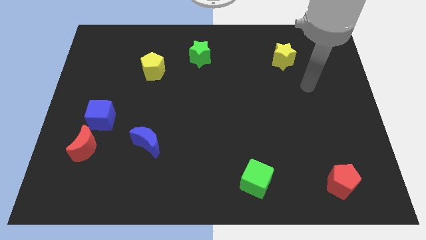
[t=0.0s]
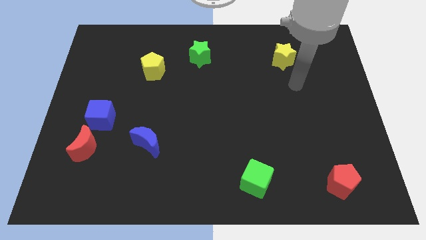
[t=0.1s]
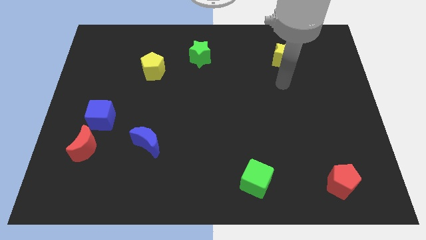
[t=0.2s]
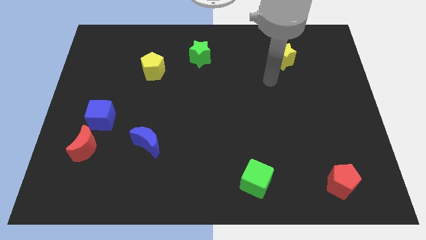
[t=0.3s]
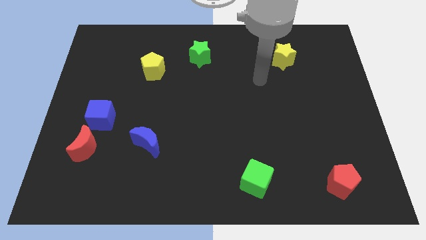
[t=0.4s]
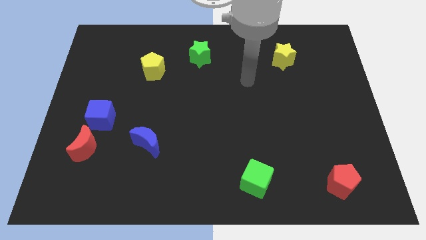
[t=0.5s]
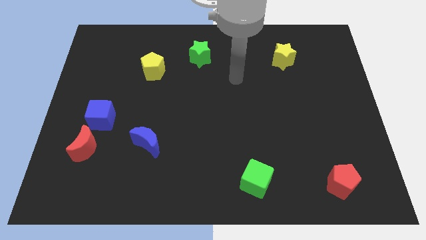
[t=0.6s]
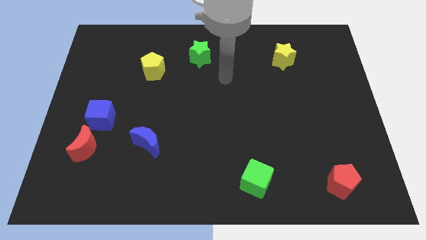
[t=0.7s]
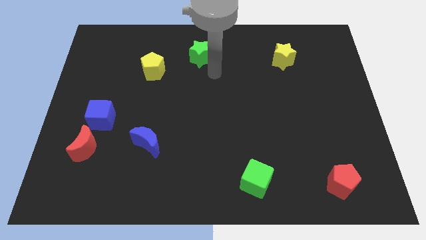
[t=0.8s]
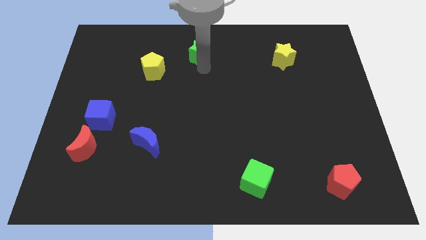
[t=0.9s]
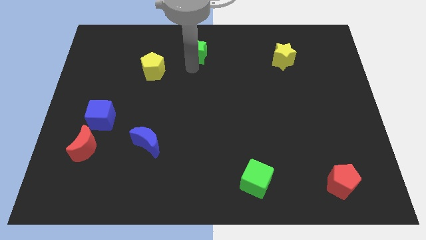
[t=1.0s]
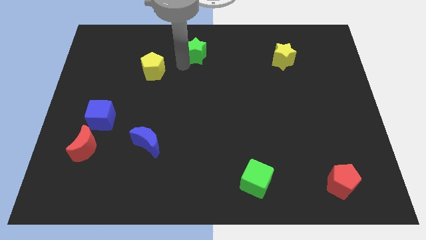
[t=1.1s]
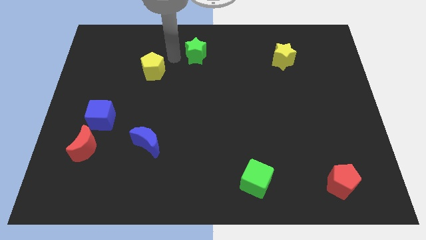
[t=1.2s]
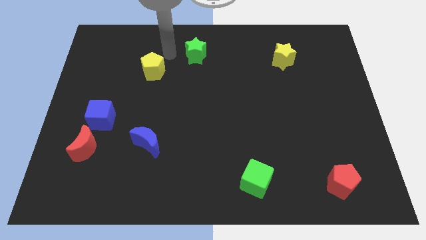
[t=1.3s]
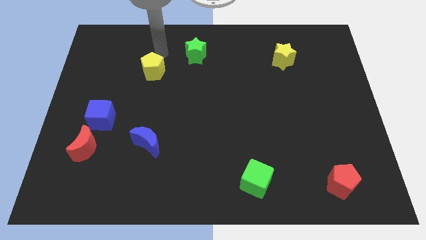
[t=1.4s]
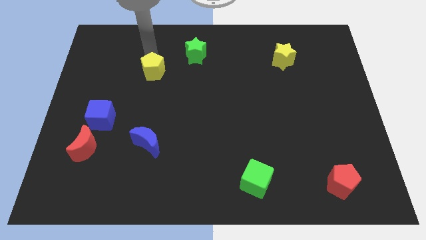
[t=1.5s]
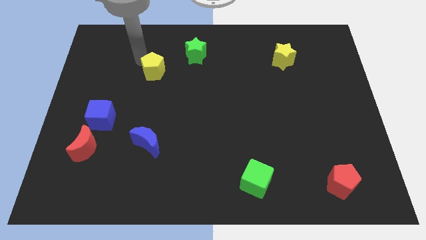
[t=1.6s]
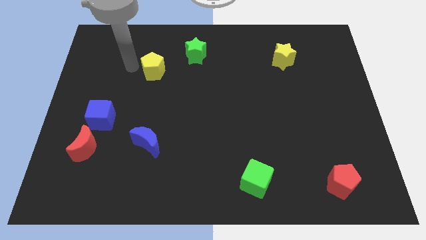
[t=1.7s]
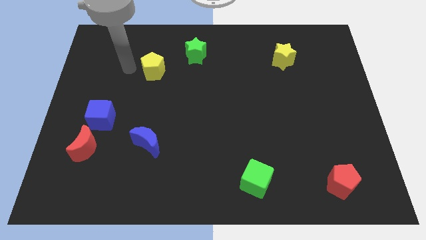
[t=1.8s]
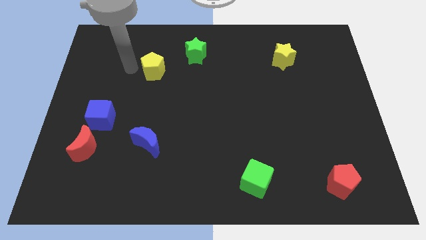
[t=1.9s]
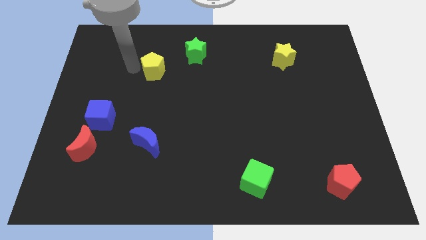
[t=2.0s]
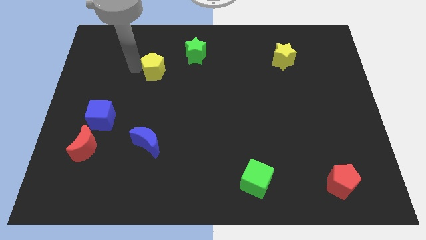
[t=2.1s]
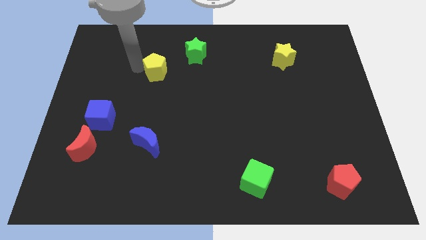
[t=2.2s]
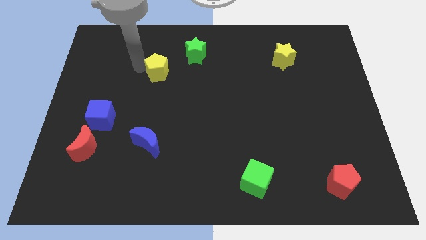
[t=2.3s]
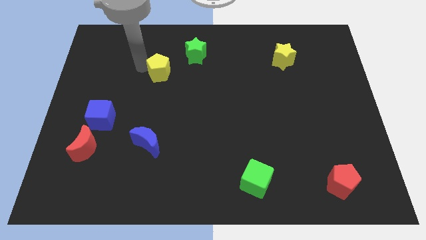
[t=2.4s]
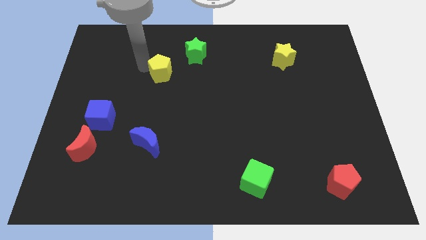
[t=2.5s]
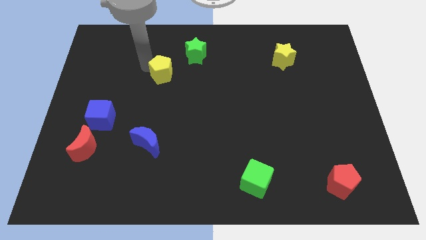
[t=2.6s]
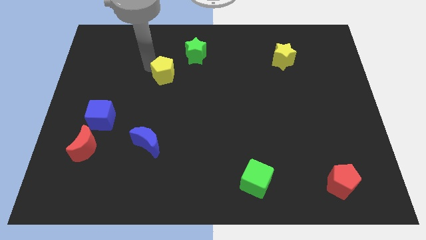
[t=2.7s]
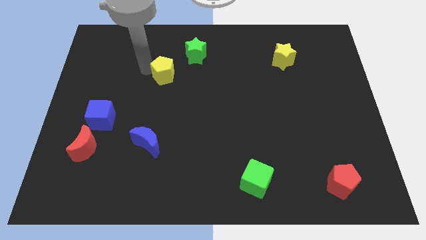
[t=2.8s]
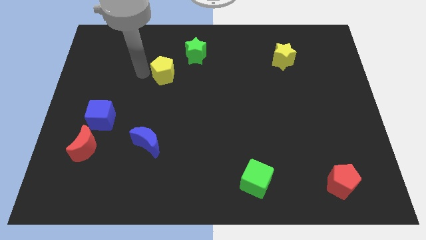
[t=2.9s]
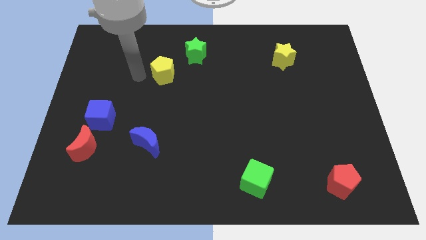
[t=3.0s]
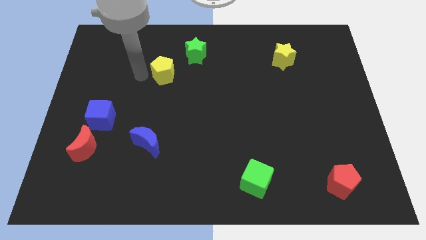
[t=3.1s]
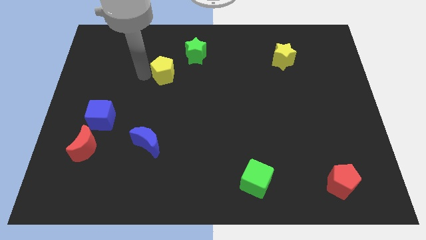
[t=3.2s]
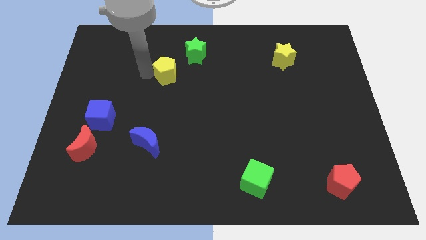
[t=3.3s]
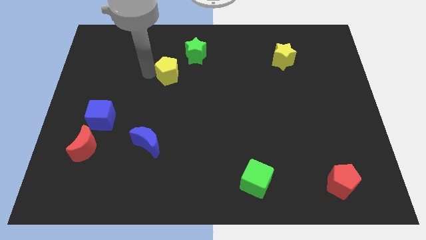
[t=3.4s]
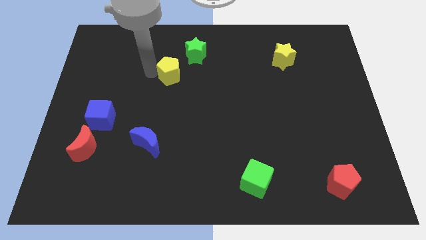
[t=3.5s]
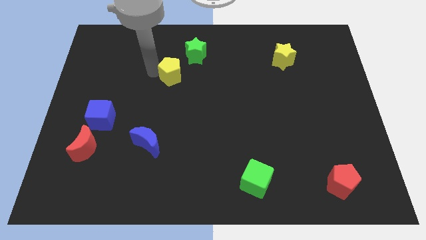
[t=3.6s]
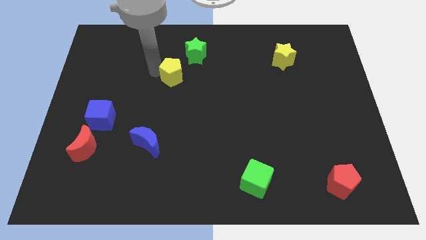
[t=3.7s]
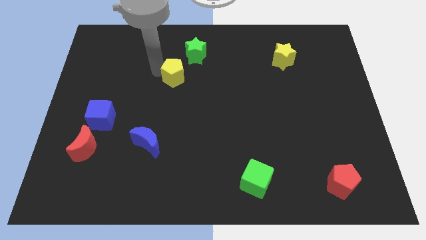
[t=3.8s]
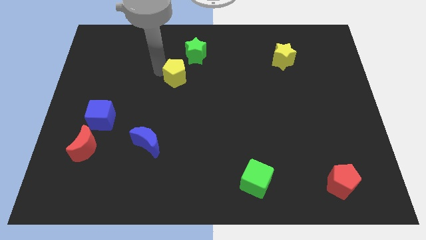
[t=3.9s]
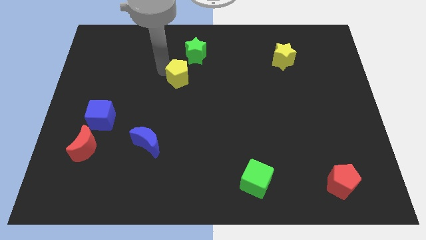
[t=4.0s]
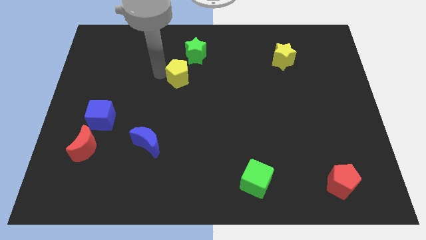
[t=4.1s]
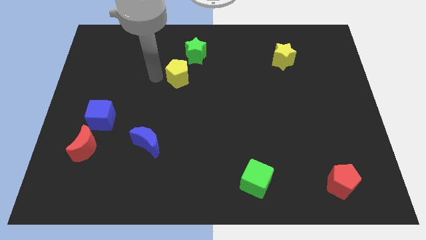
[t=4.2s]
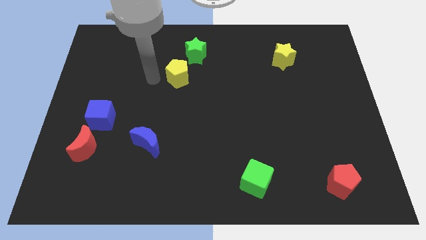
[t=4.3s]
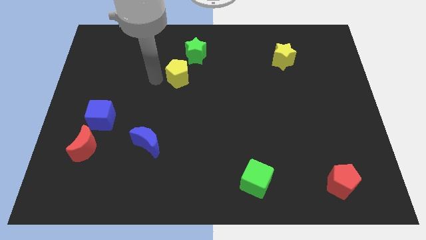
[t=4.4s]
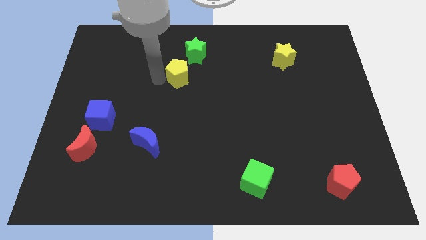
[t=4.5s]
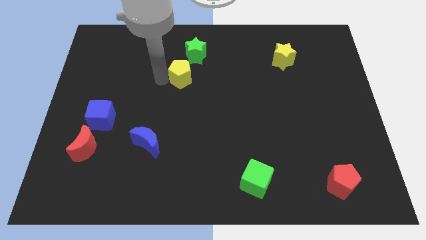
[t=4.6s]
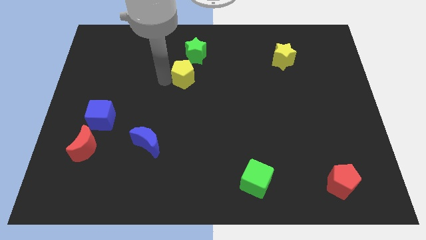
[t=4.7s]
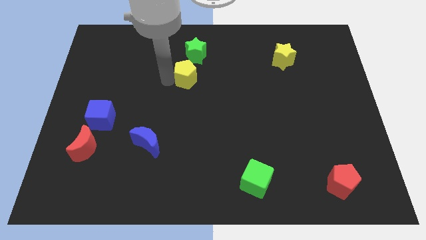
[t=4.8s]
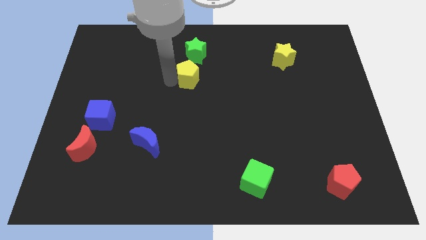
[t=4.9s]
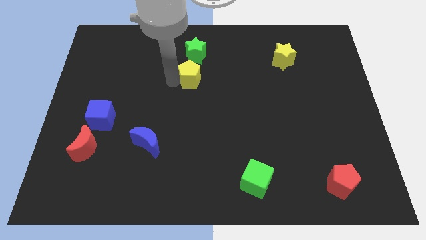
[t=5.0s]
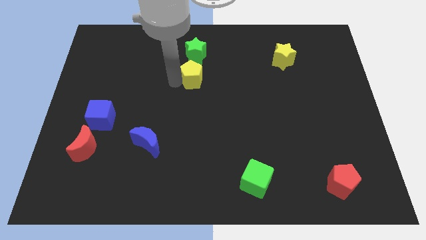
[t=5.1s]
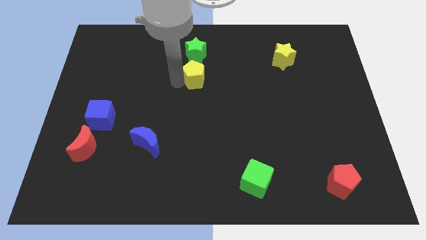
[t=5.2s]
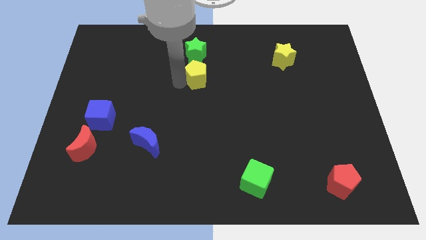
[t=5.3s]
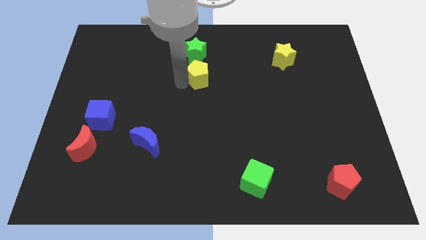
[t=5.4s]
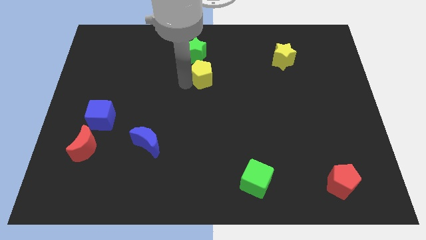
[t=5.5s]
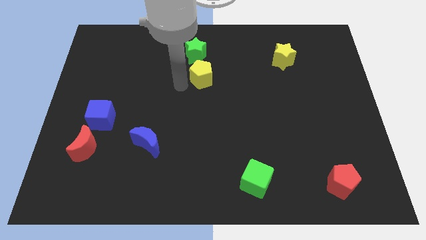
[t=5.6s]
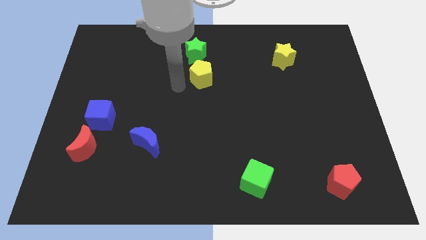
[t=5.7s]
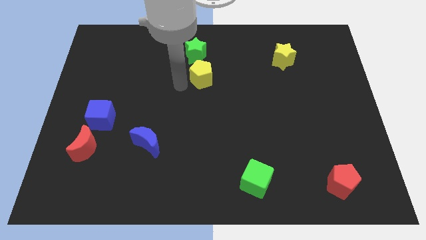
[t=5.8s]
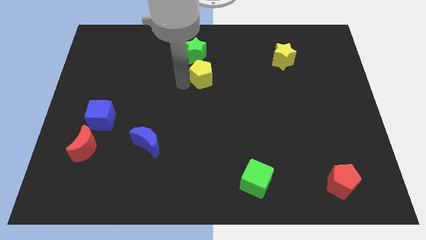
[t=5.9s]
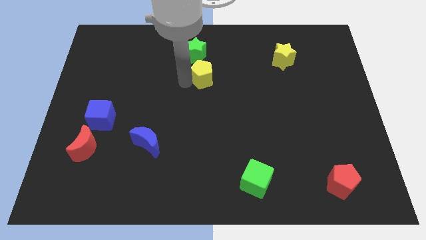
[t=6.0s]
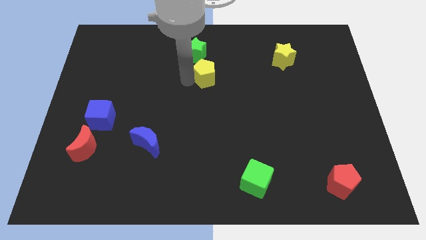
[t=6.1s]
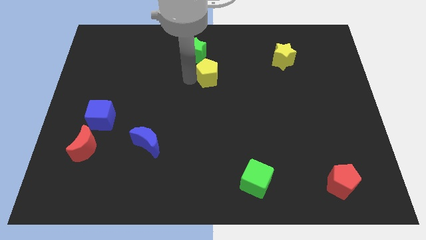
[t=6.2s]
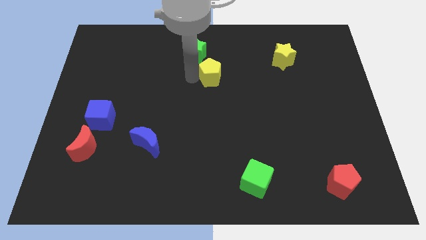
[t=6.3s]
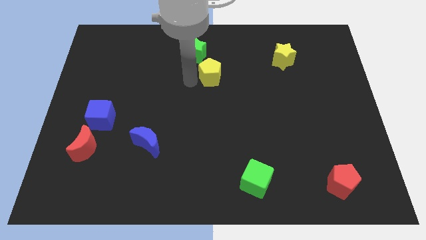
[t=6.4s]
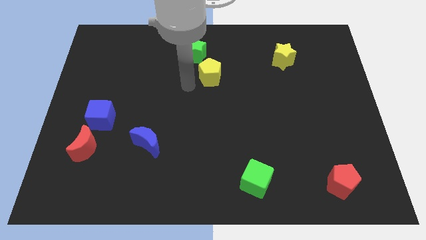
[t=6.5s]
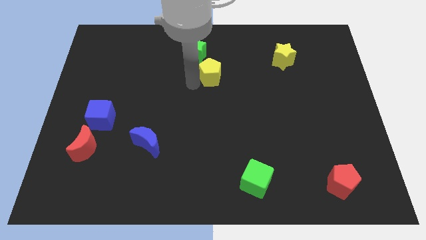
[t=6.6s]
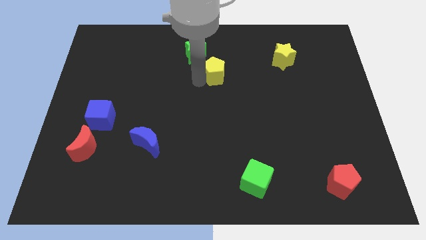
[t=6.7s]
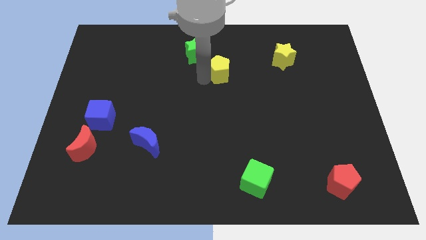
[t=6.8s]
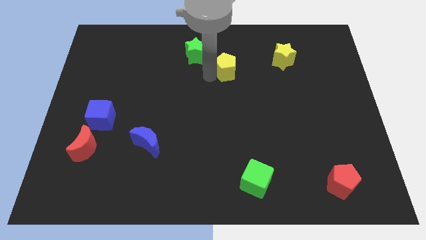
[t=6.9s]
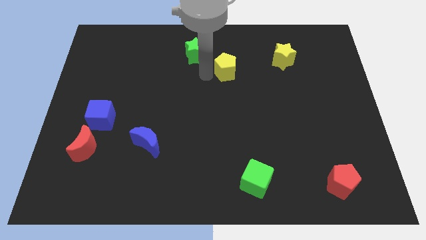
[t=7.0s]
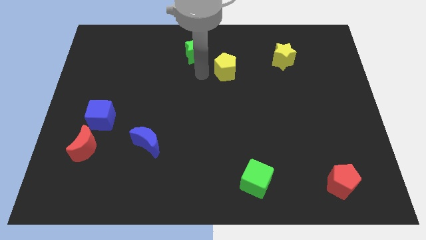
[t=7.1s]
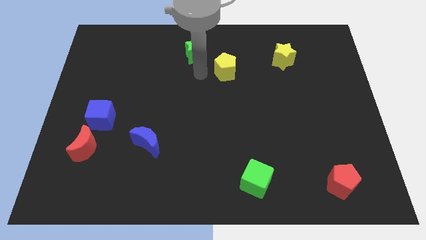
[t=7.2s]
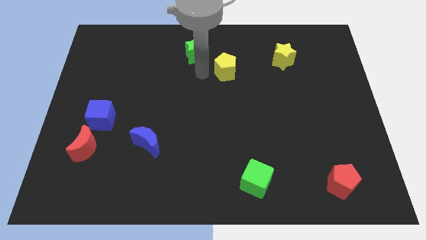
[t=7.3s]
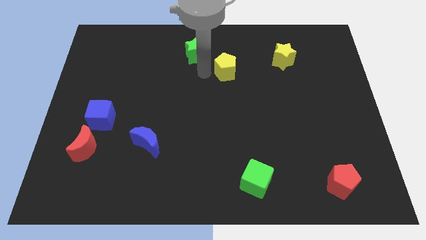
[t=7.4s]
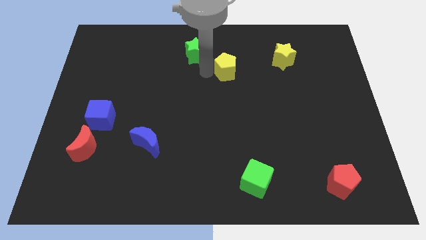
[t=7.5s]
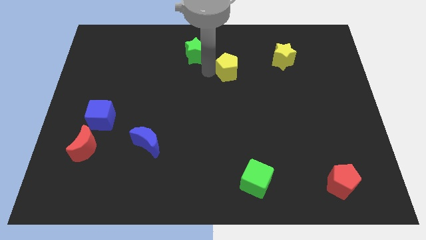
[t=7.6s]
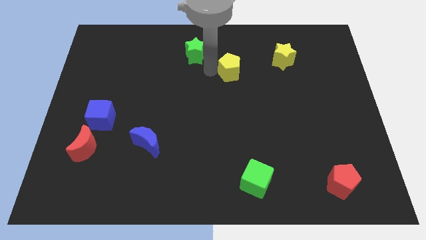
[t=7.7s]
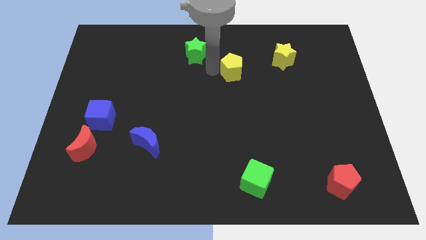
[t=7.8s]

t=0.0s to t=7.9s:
push the yellow pentagon right

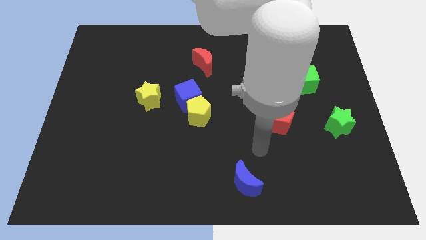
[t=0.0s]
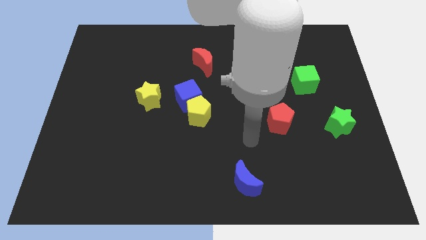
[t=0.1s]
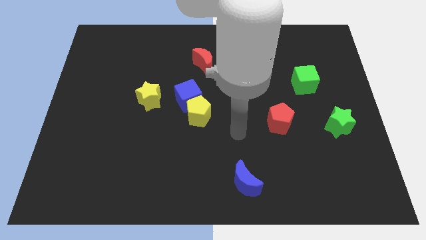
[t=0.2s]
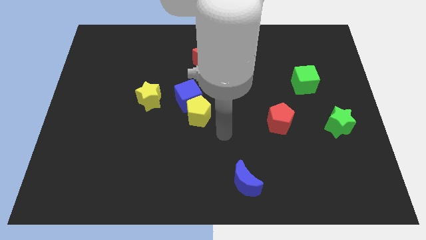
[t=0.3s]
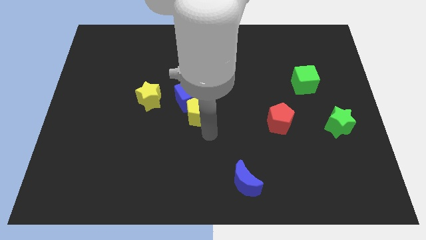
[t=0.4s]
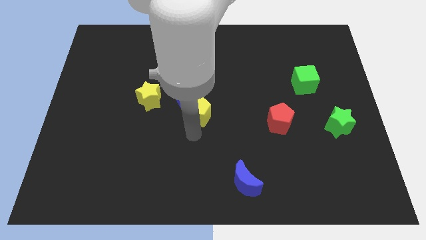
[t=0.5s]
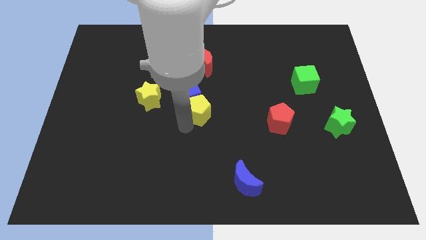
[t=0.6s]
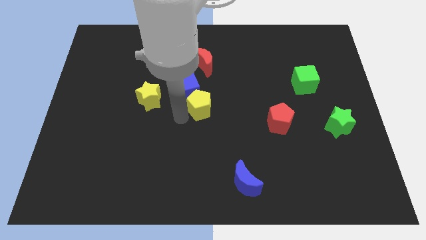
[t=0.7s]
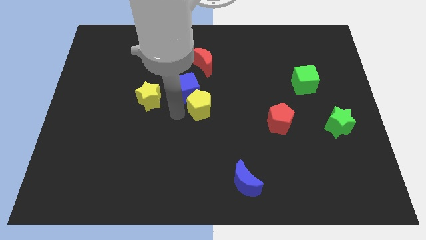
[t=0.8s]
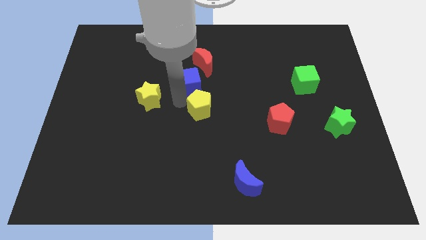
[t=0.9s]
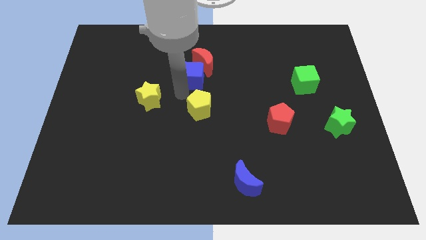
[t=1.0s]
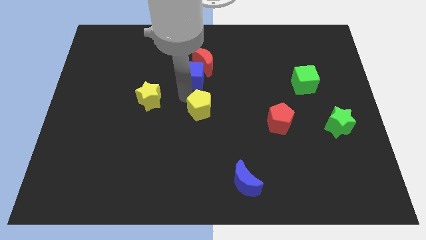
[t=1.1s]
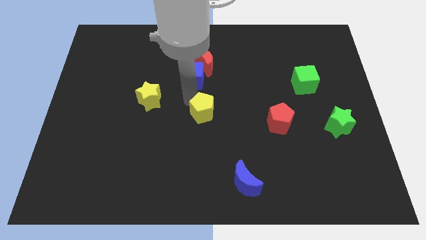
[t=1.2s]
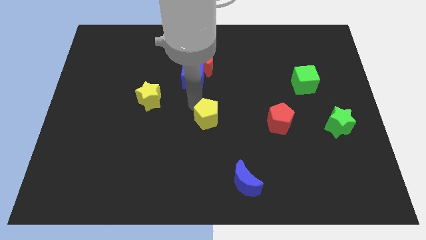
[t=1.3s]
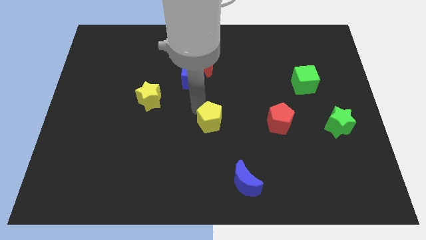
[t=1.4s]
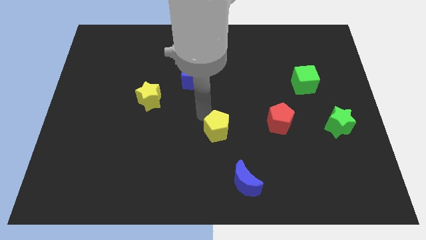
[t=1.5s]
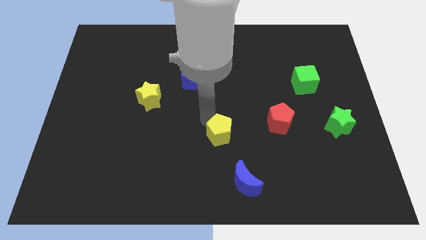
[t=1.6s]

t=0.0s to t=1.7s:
push the yellow pentagon somewhat downwards and to the right diagonally
